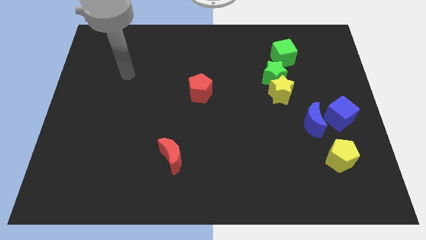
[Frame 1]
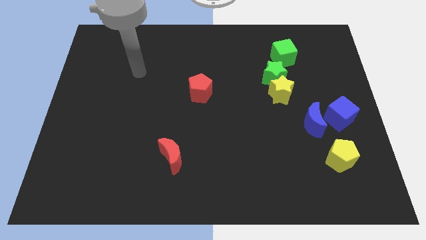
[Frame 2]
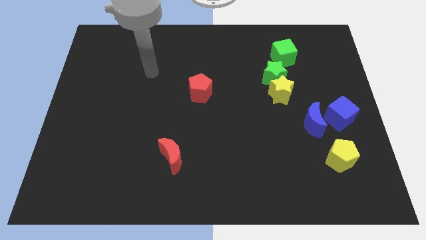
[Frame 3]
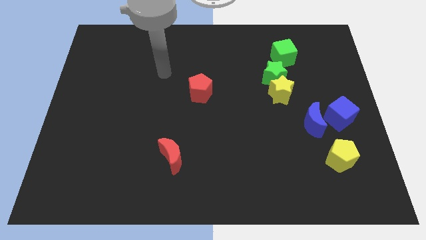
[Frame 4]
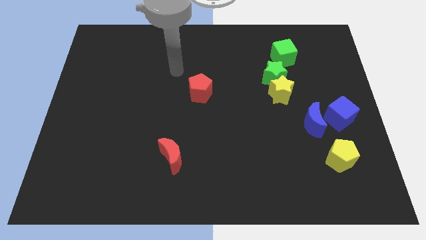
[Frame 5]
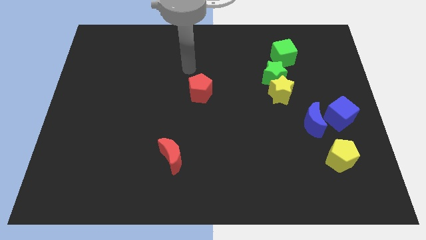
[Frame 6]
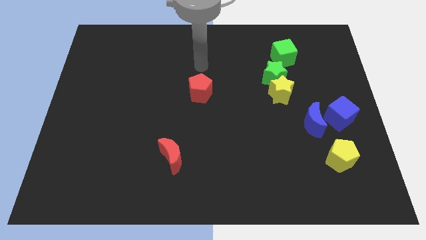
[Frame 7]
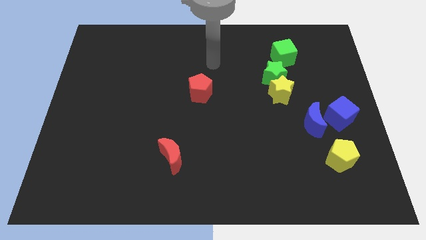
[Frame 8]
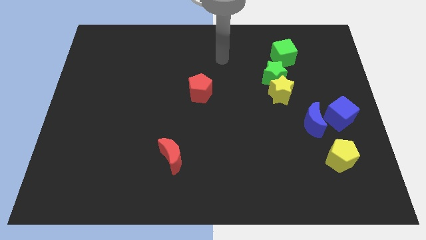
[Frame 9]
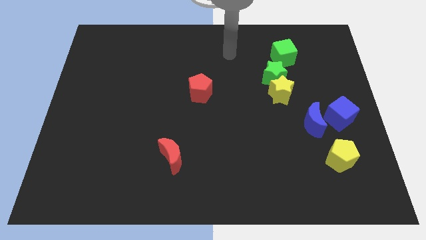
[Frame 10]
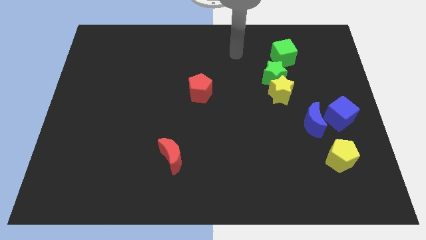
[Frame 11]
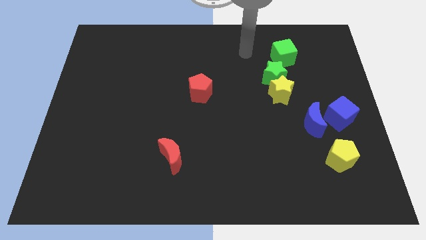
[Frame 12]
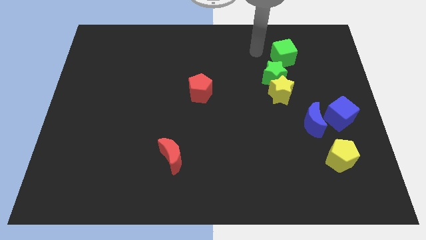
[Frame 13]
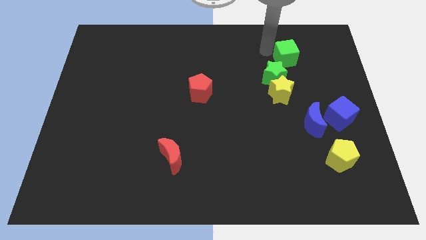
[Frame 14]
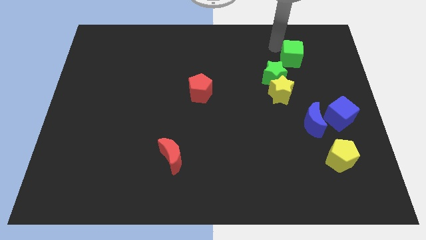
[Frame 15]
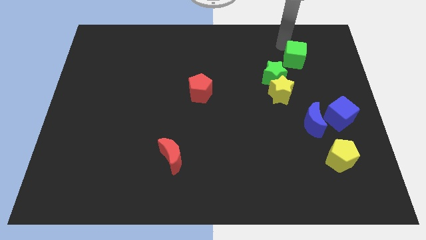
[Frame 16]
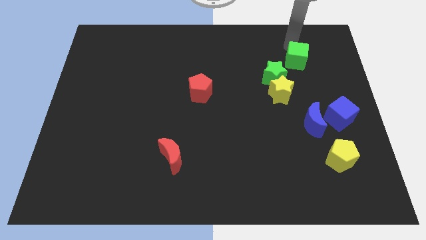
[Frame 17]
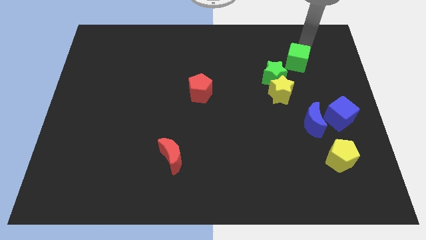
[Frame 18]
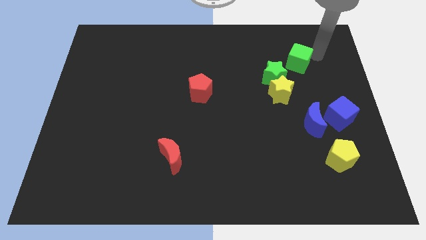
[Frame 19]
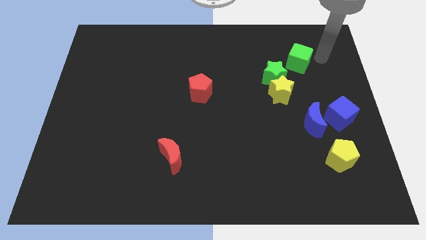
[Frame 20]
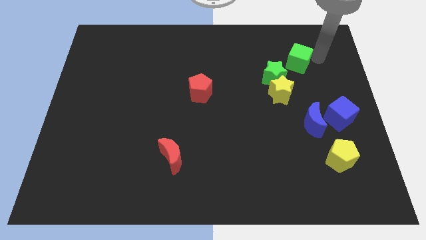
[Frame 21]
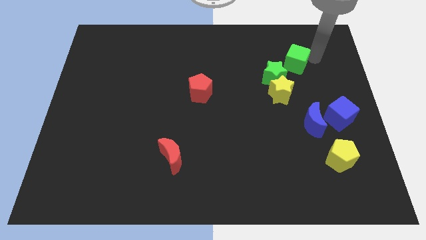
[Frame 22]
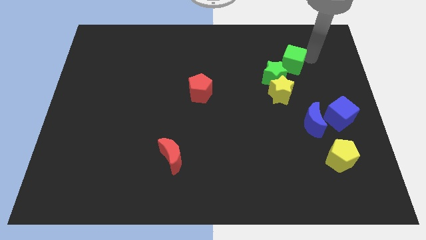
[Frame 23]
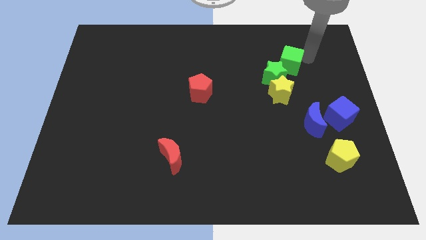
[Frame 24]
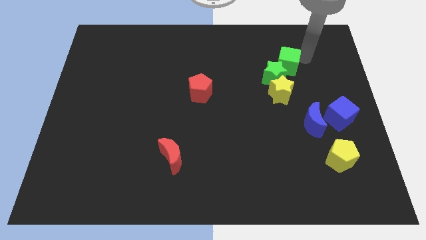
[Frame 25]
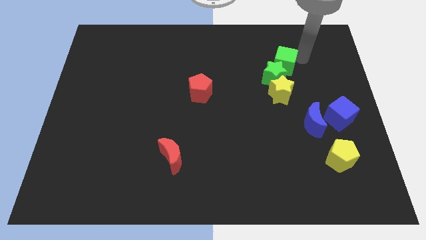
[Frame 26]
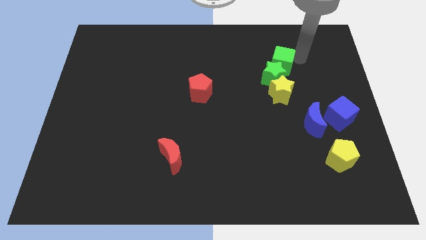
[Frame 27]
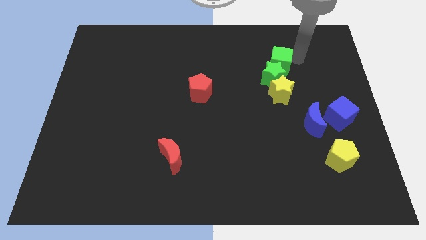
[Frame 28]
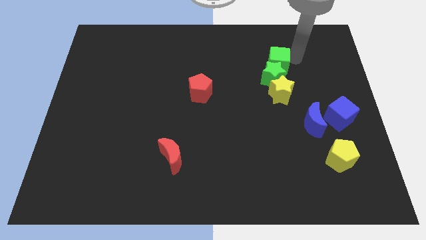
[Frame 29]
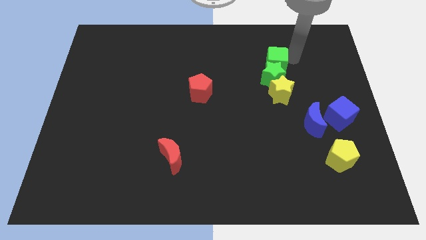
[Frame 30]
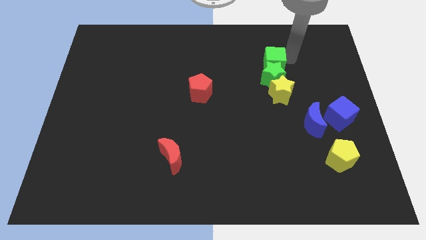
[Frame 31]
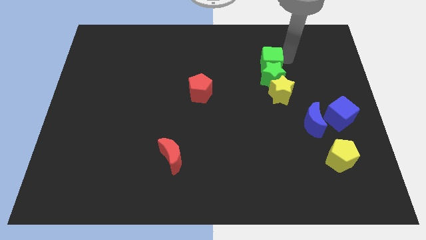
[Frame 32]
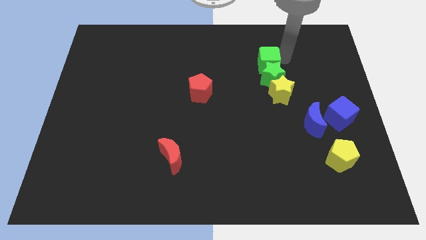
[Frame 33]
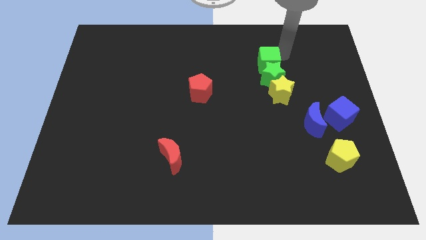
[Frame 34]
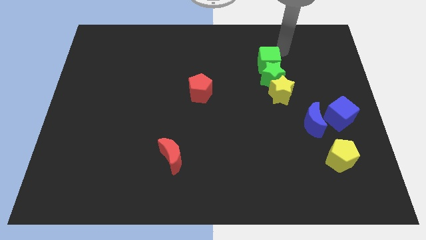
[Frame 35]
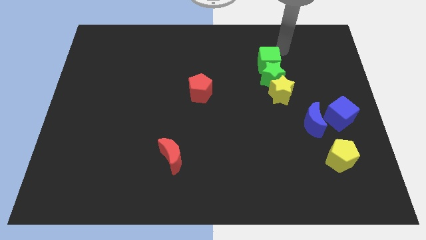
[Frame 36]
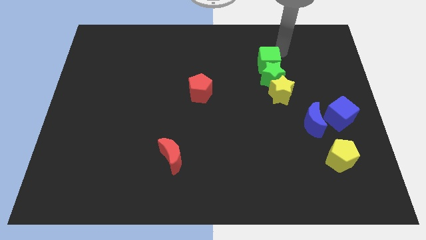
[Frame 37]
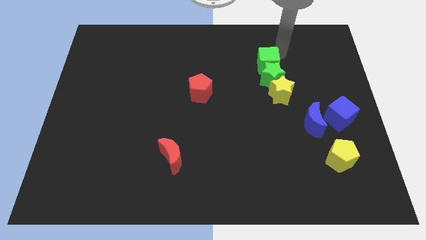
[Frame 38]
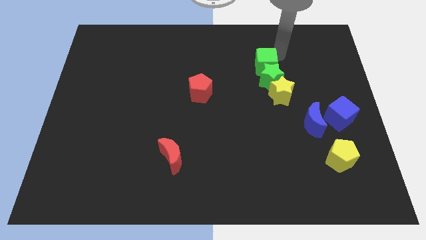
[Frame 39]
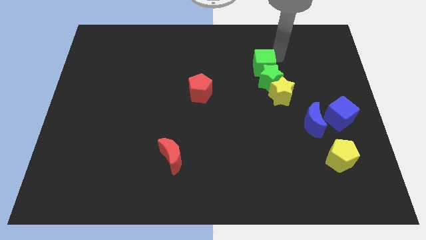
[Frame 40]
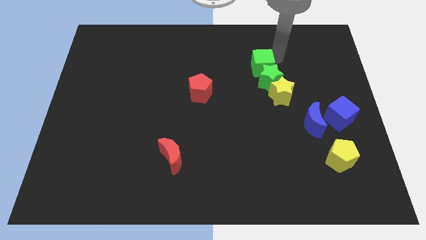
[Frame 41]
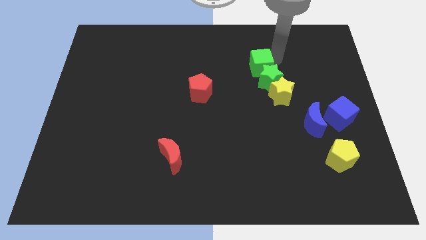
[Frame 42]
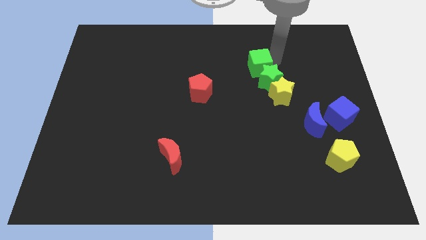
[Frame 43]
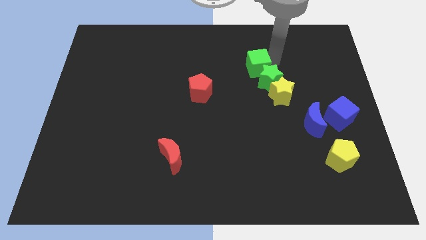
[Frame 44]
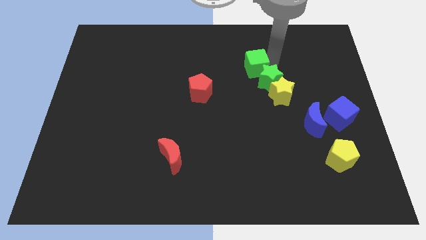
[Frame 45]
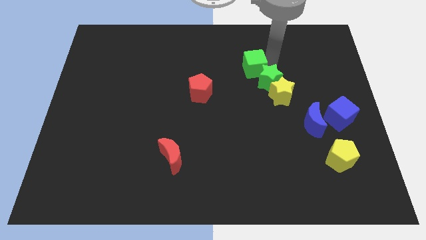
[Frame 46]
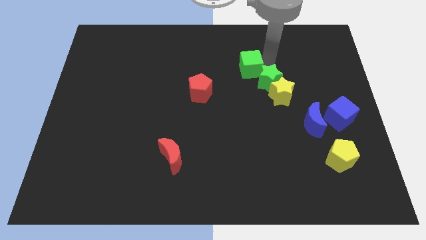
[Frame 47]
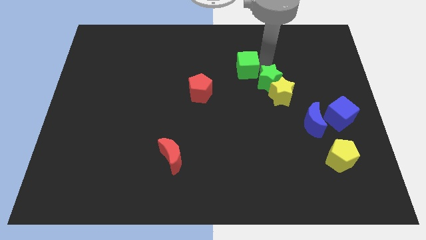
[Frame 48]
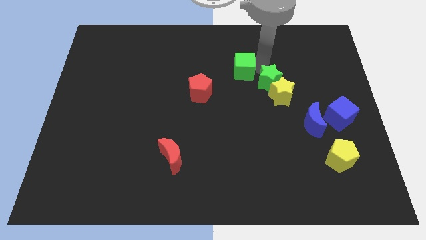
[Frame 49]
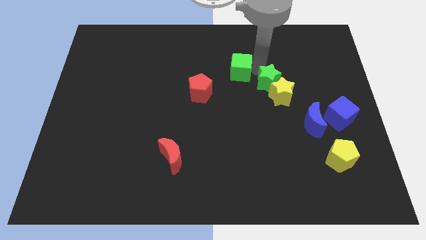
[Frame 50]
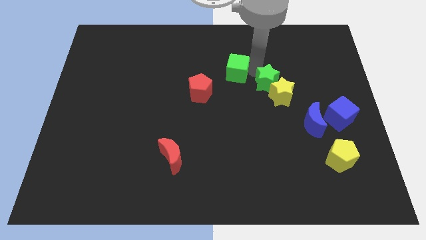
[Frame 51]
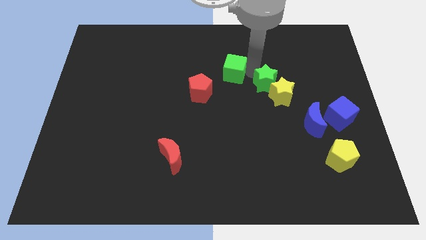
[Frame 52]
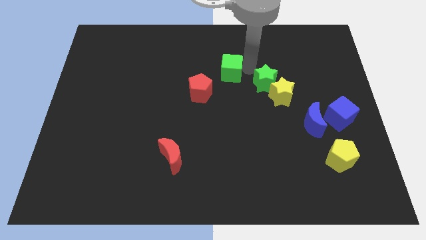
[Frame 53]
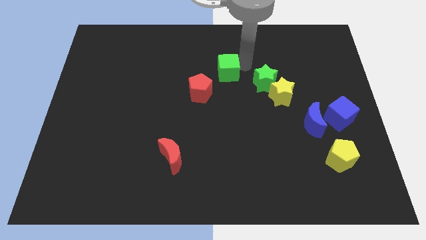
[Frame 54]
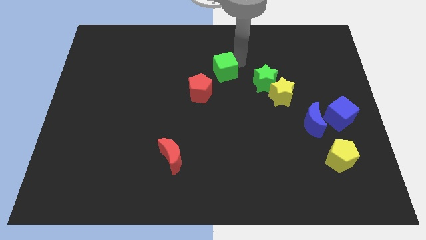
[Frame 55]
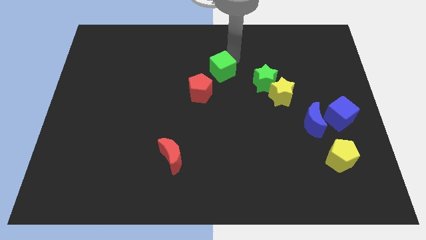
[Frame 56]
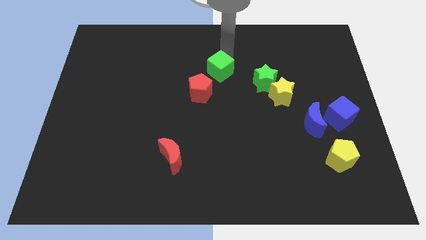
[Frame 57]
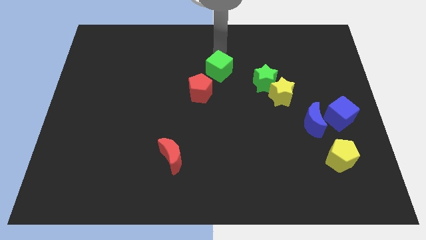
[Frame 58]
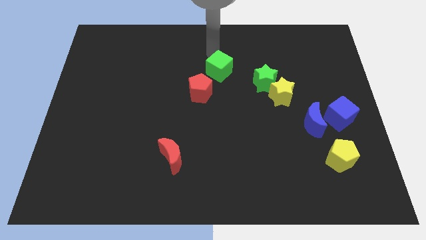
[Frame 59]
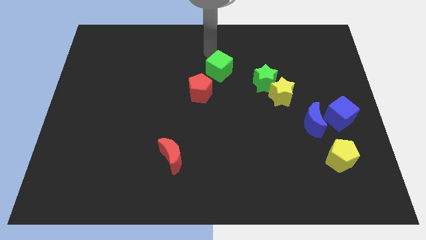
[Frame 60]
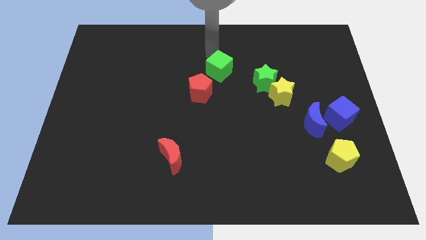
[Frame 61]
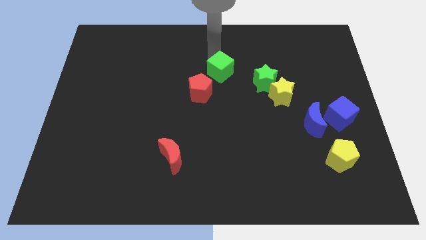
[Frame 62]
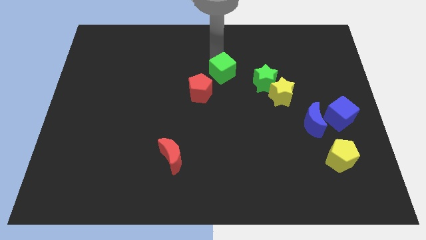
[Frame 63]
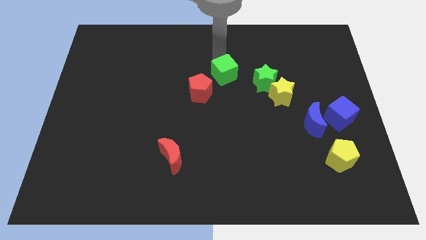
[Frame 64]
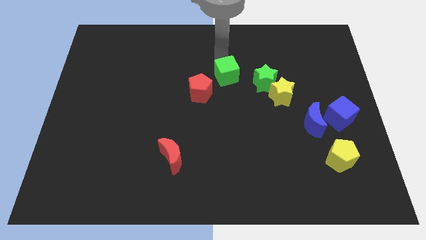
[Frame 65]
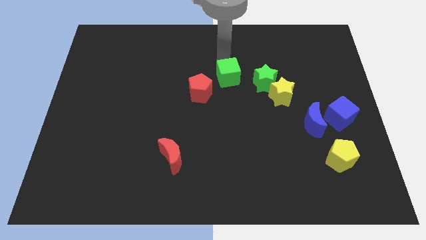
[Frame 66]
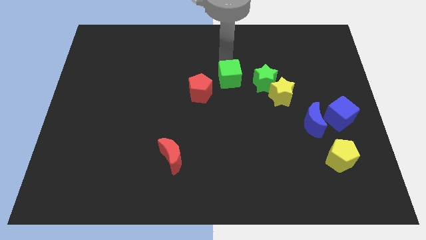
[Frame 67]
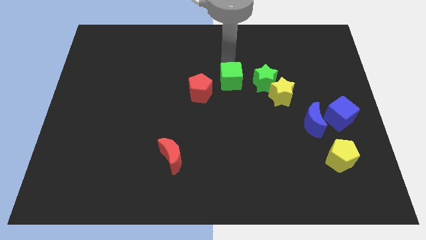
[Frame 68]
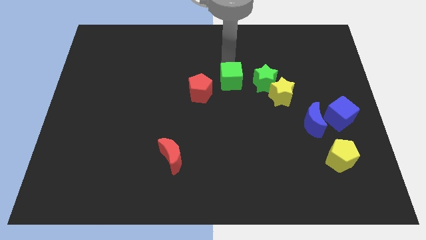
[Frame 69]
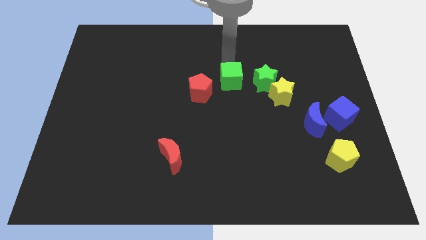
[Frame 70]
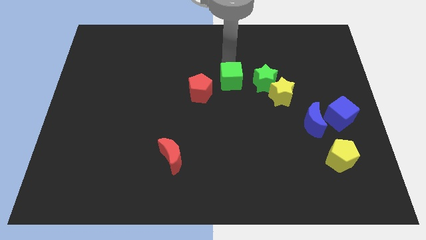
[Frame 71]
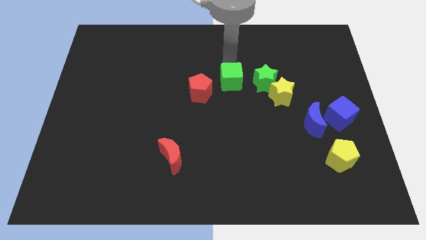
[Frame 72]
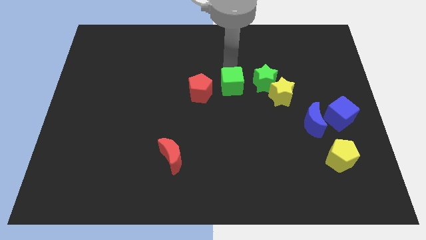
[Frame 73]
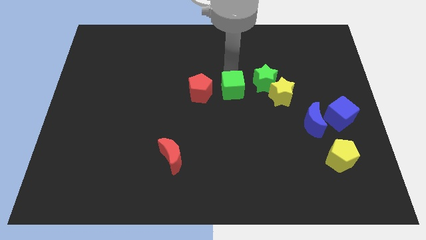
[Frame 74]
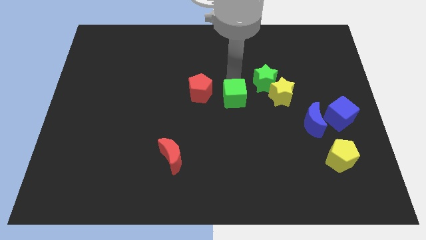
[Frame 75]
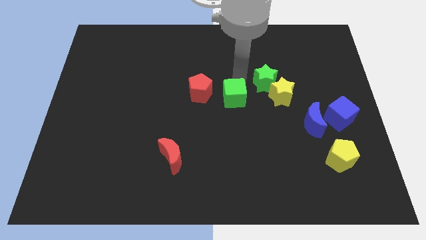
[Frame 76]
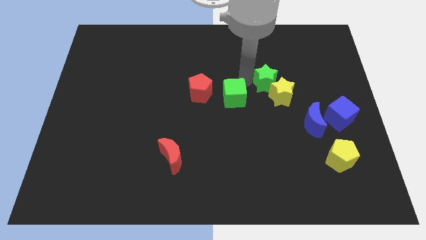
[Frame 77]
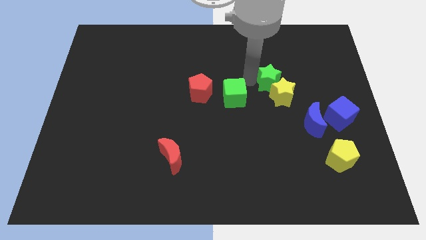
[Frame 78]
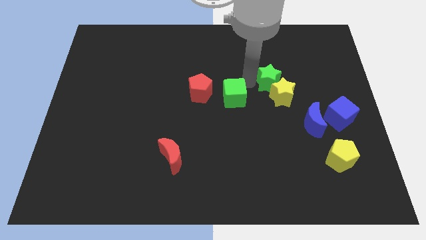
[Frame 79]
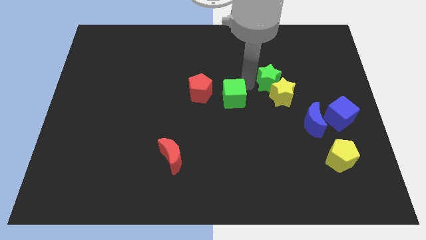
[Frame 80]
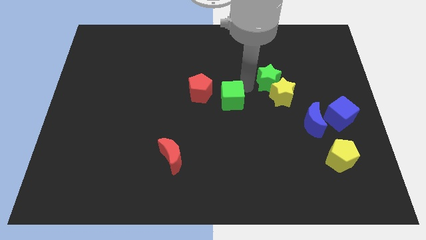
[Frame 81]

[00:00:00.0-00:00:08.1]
push the green cube down and then to the left

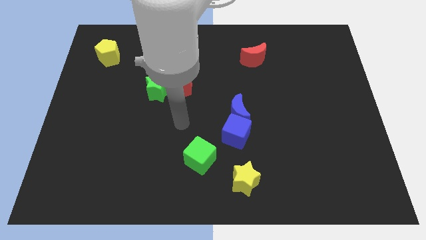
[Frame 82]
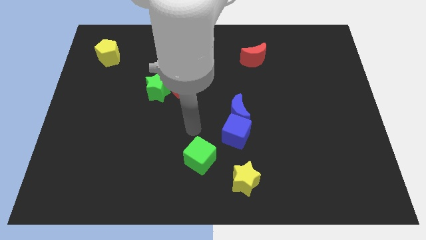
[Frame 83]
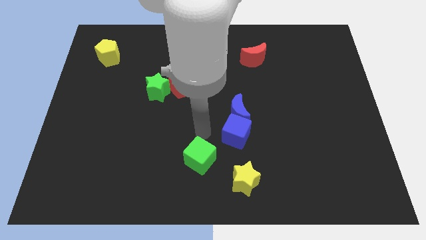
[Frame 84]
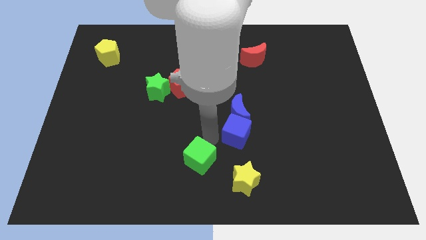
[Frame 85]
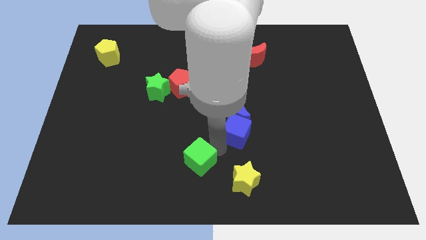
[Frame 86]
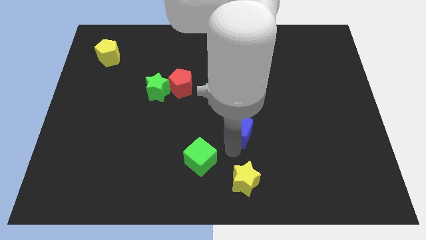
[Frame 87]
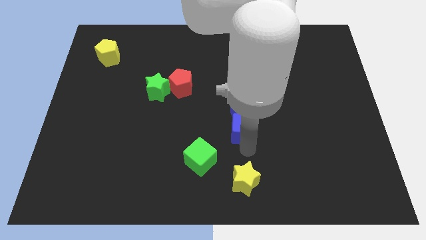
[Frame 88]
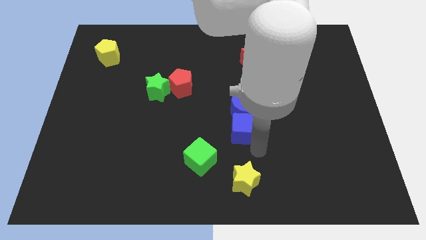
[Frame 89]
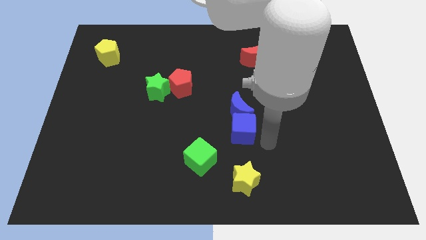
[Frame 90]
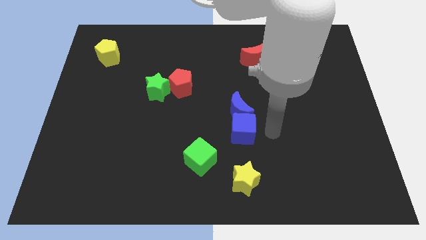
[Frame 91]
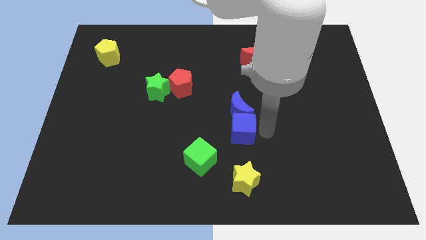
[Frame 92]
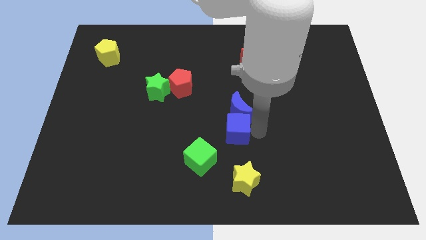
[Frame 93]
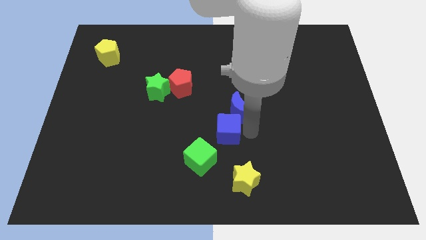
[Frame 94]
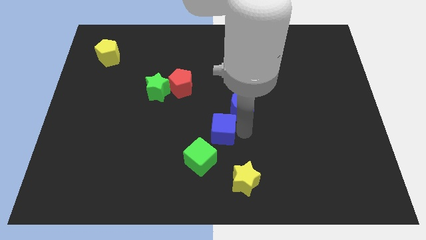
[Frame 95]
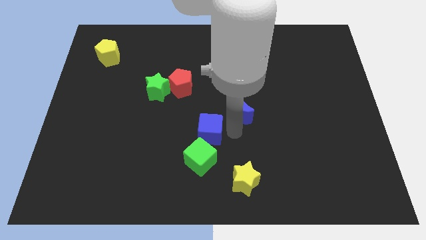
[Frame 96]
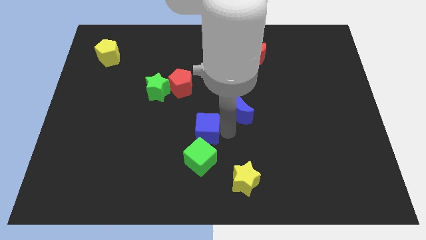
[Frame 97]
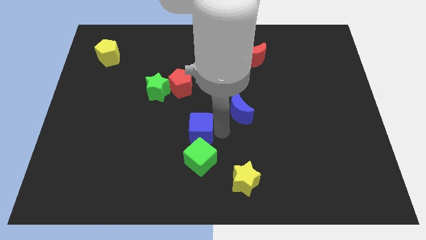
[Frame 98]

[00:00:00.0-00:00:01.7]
slightly move the blue cube to the left
